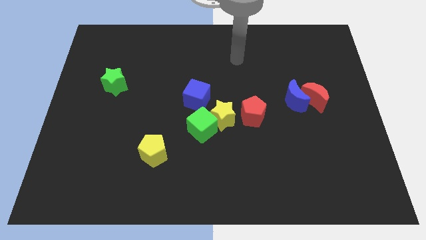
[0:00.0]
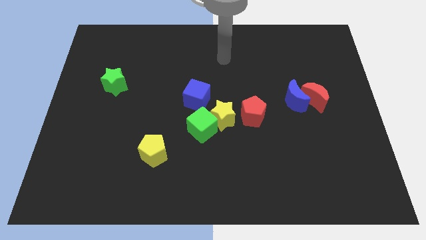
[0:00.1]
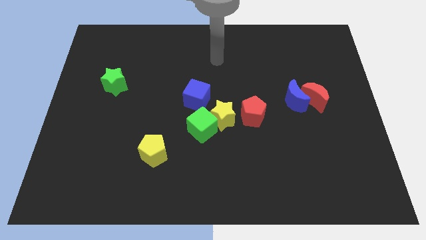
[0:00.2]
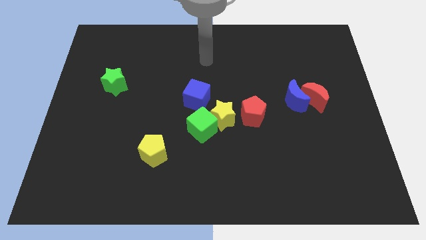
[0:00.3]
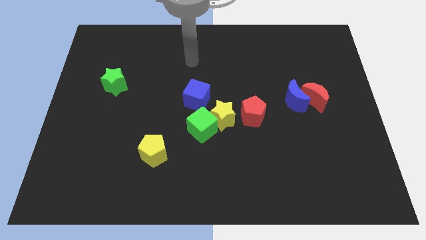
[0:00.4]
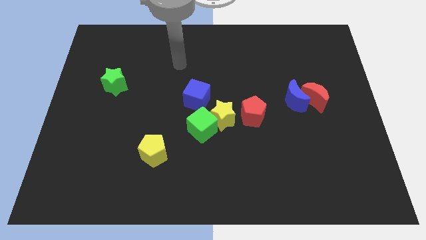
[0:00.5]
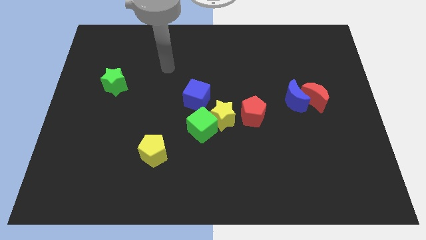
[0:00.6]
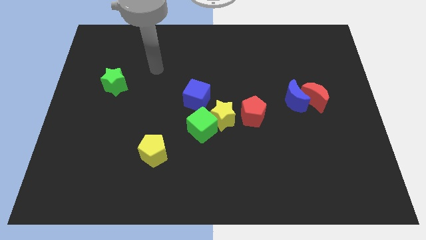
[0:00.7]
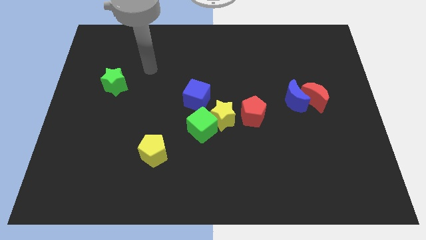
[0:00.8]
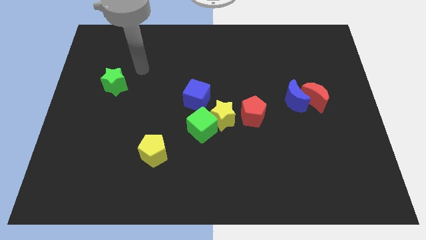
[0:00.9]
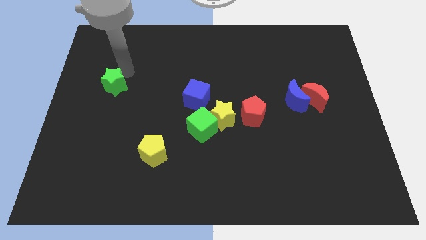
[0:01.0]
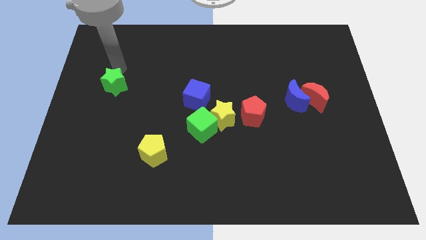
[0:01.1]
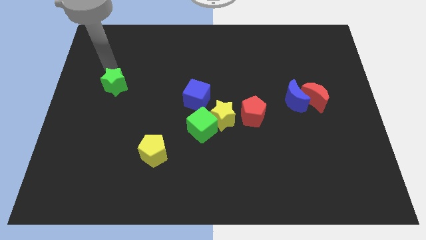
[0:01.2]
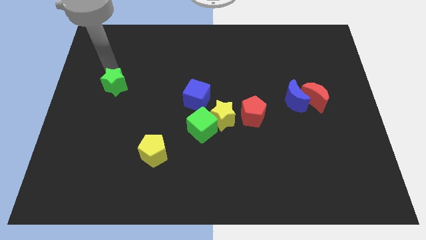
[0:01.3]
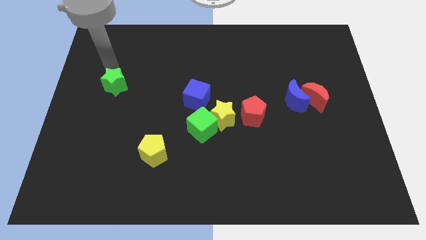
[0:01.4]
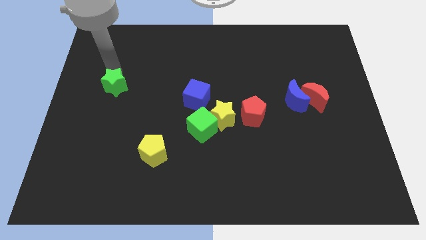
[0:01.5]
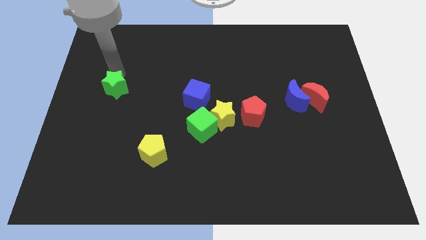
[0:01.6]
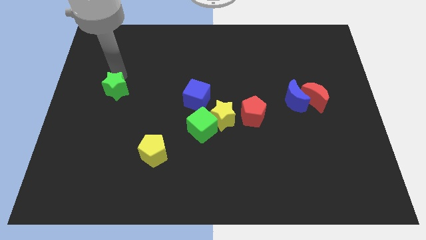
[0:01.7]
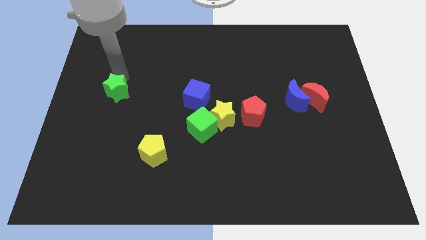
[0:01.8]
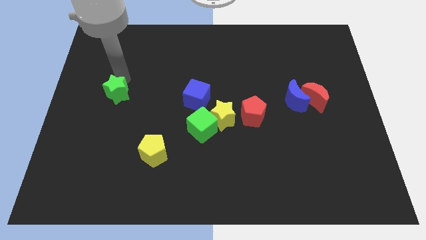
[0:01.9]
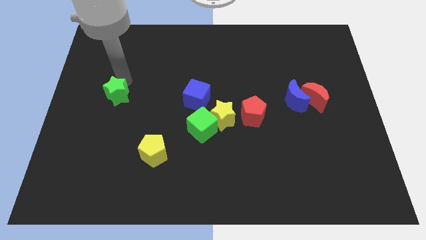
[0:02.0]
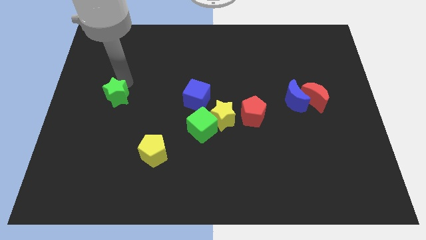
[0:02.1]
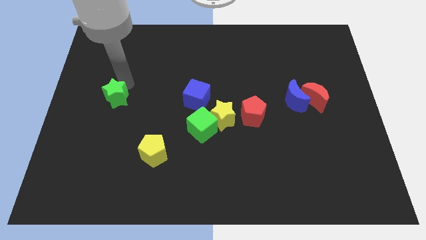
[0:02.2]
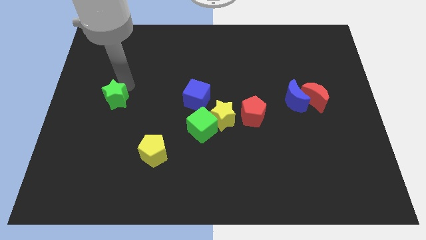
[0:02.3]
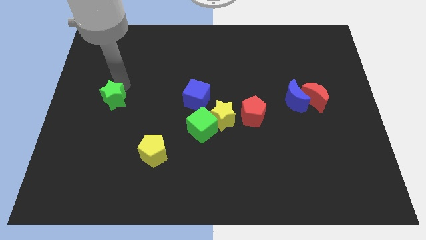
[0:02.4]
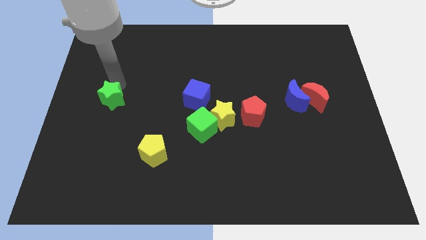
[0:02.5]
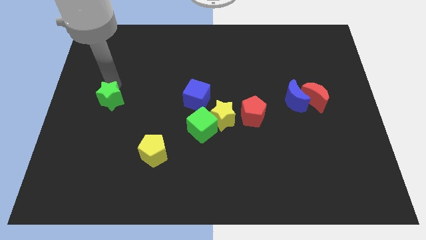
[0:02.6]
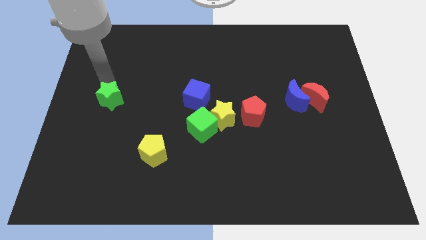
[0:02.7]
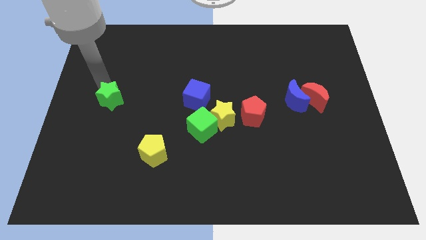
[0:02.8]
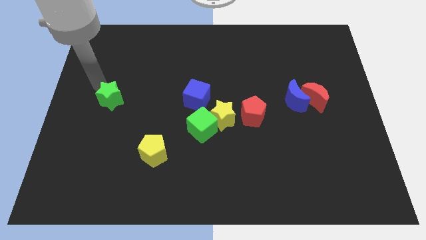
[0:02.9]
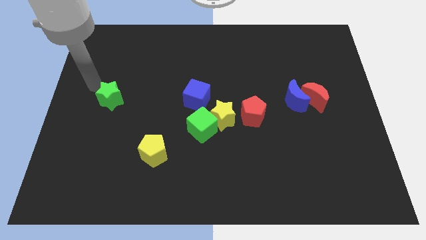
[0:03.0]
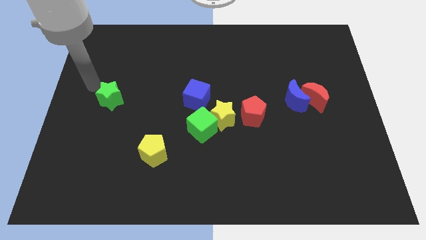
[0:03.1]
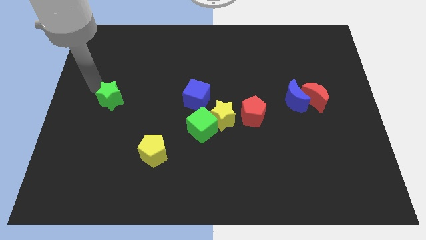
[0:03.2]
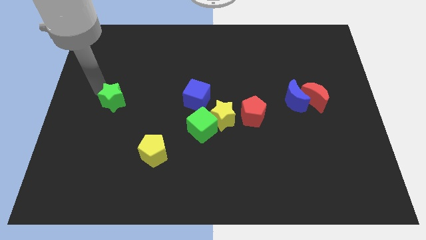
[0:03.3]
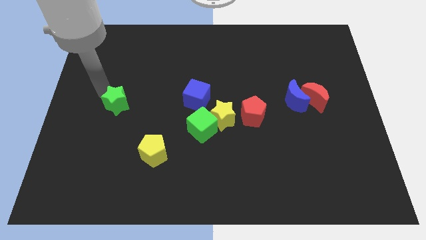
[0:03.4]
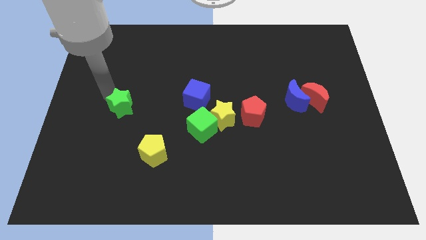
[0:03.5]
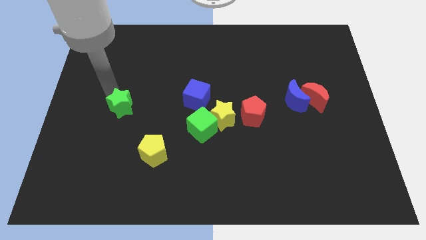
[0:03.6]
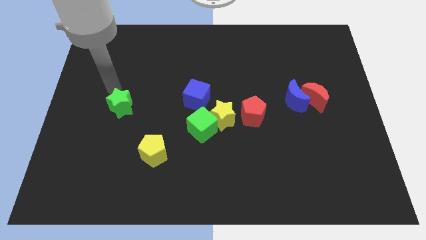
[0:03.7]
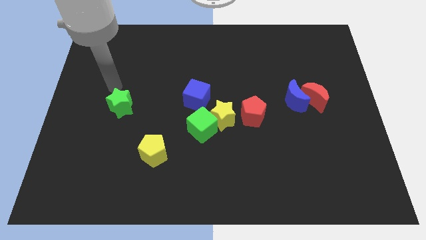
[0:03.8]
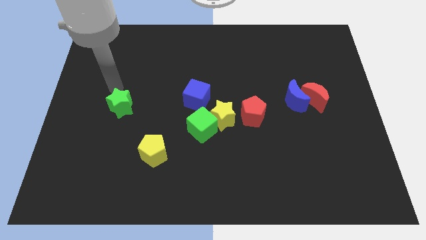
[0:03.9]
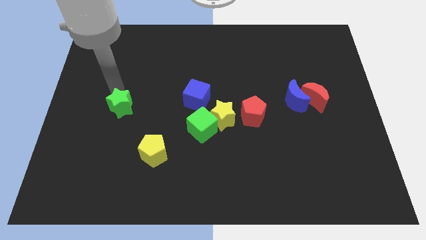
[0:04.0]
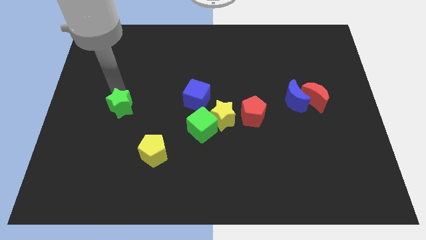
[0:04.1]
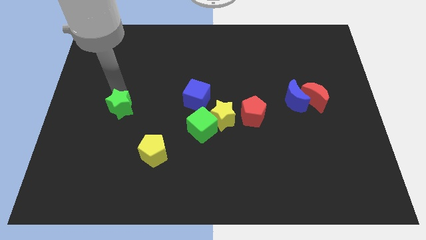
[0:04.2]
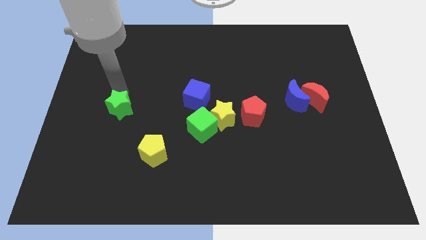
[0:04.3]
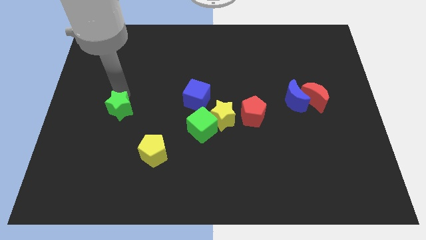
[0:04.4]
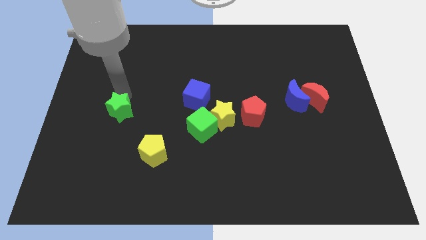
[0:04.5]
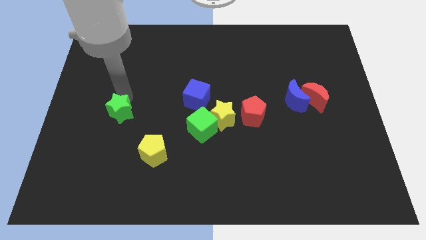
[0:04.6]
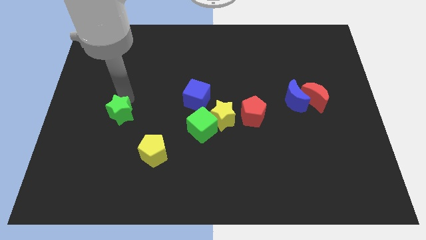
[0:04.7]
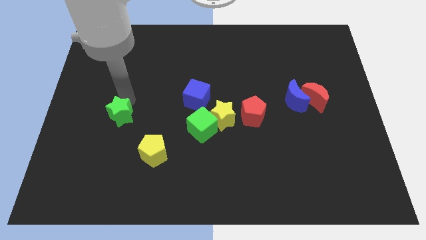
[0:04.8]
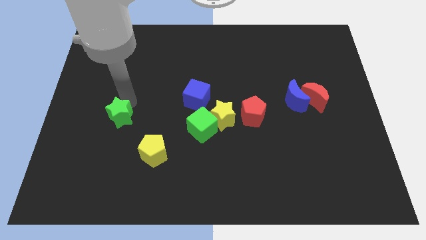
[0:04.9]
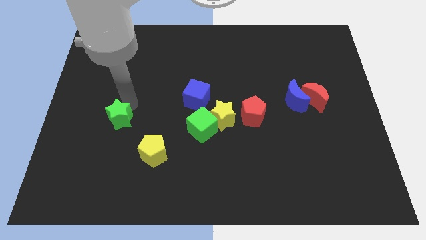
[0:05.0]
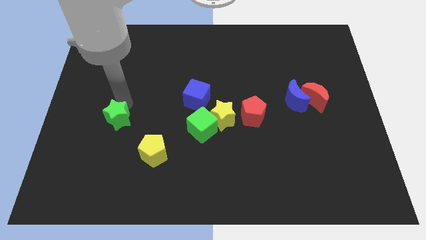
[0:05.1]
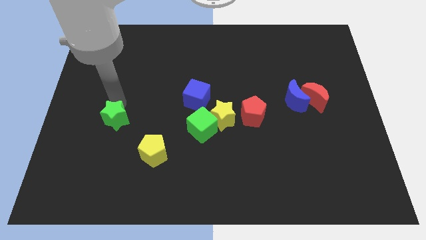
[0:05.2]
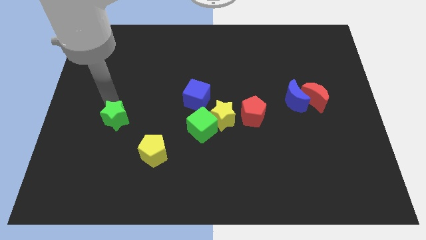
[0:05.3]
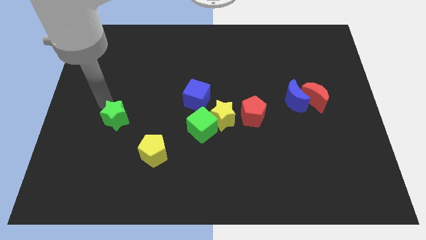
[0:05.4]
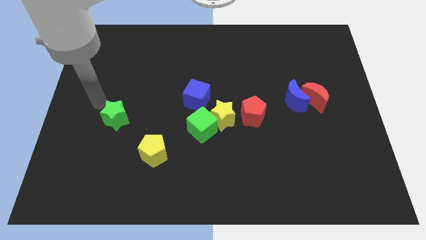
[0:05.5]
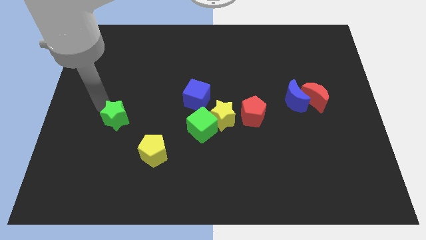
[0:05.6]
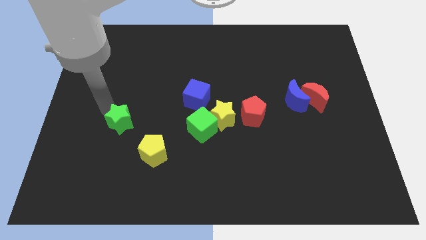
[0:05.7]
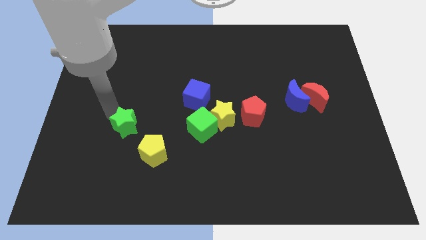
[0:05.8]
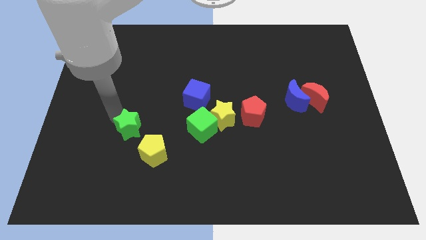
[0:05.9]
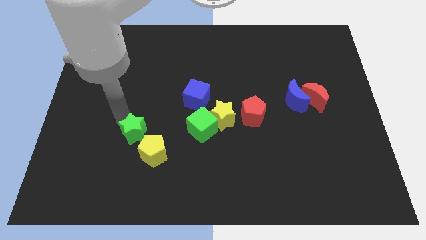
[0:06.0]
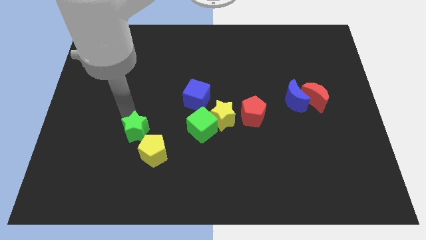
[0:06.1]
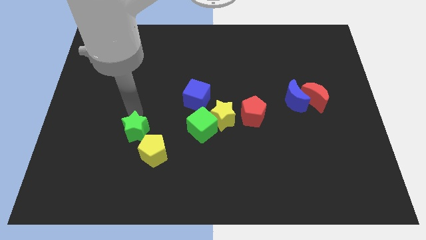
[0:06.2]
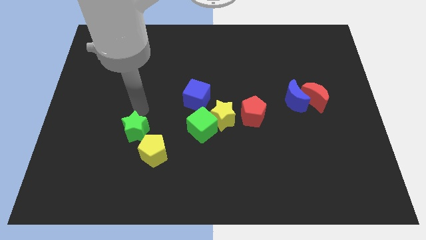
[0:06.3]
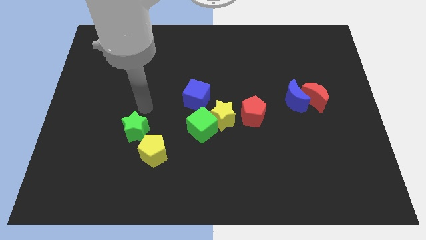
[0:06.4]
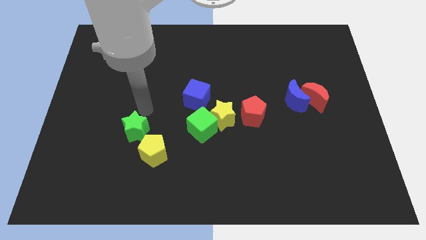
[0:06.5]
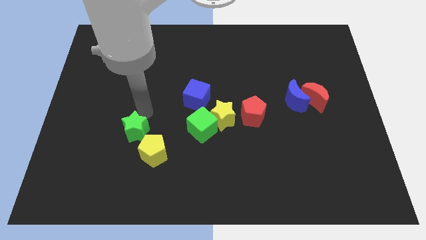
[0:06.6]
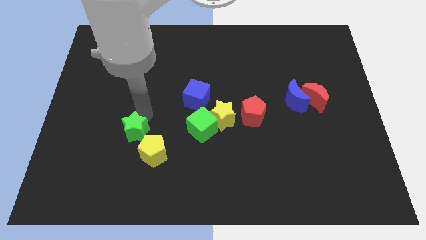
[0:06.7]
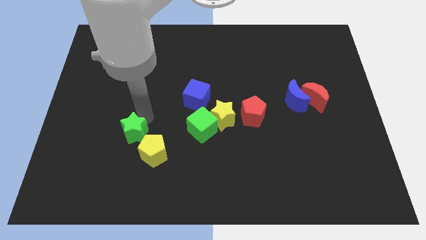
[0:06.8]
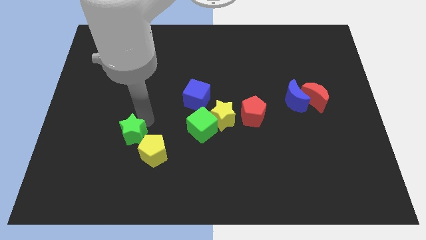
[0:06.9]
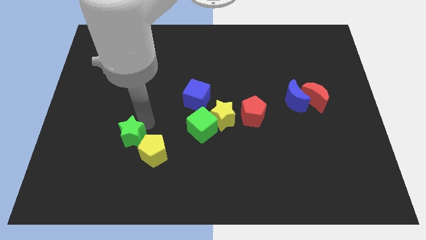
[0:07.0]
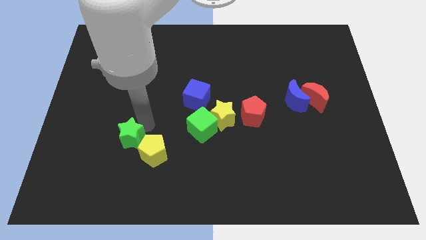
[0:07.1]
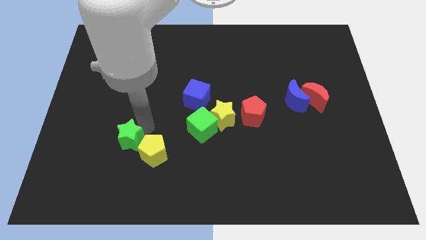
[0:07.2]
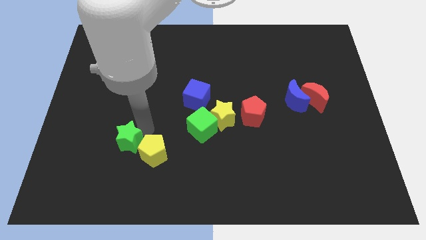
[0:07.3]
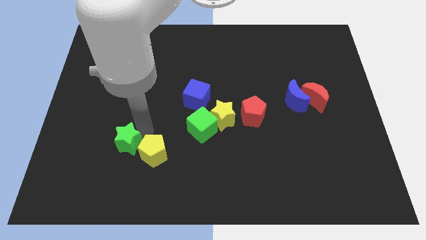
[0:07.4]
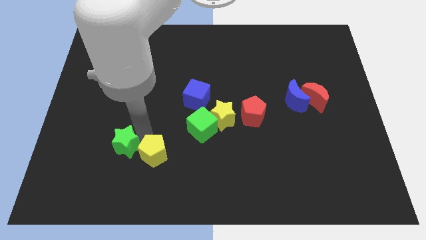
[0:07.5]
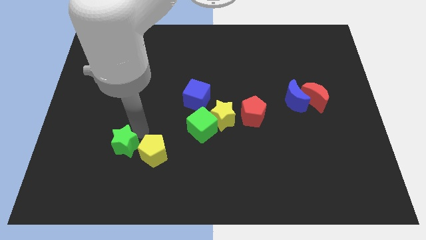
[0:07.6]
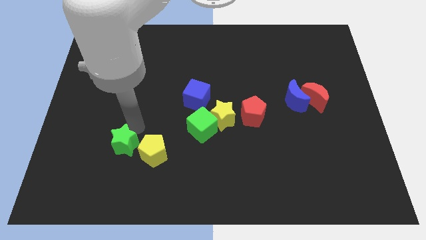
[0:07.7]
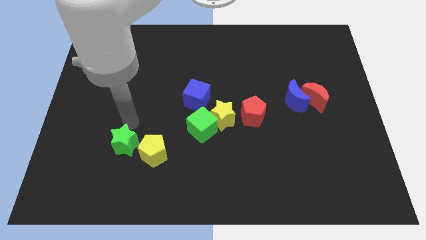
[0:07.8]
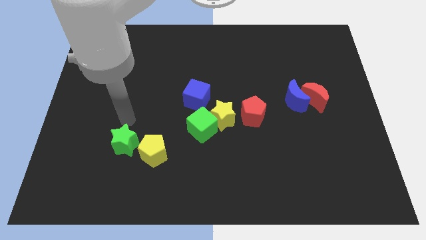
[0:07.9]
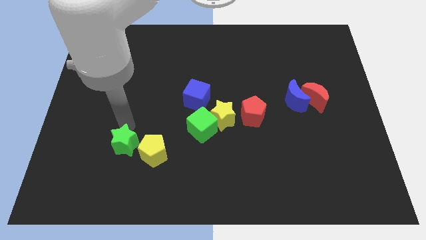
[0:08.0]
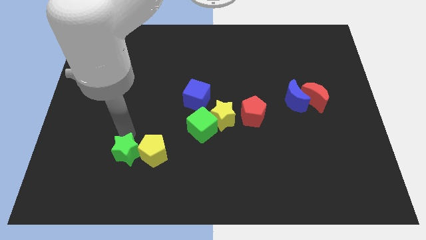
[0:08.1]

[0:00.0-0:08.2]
put the green star to the bottom left of the yellow pentagon
